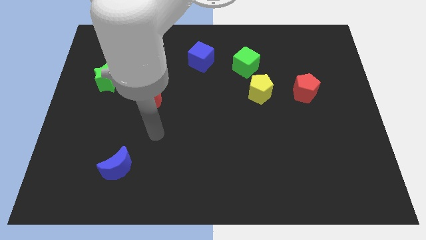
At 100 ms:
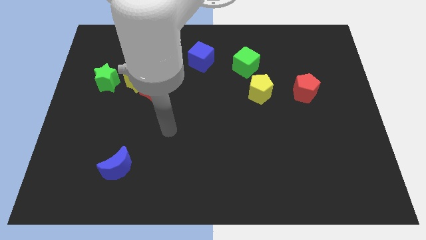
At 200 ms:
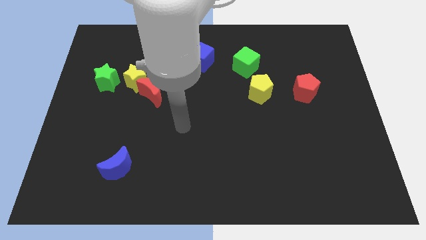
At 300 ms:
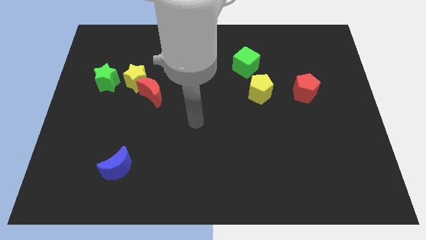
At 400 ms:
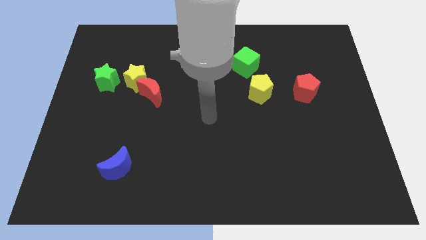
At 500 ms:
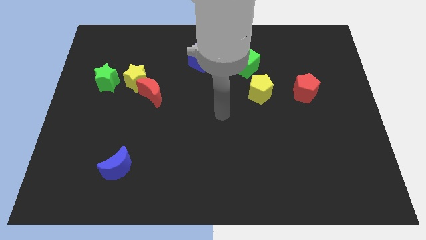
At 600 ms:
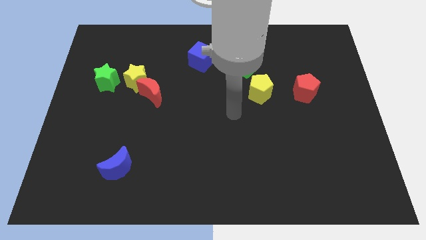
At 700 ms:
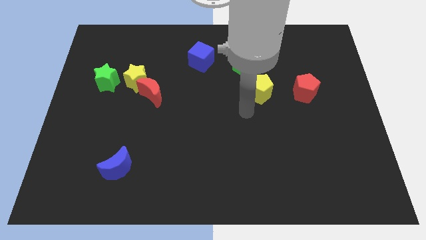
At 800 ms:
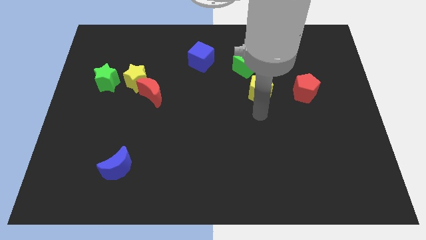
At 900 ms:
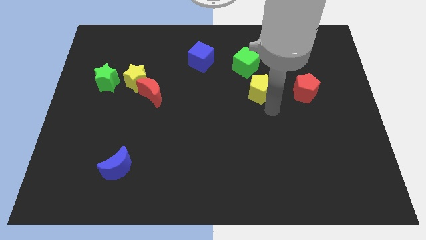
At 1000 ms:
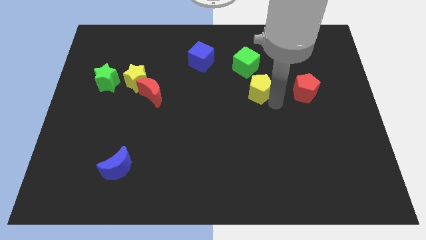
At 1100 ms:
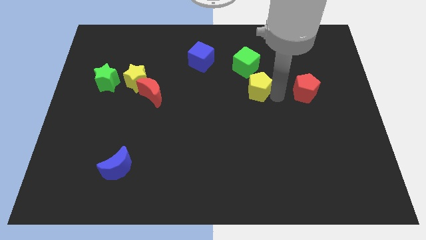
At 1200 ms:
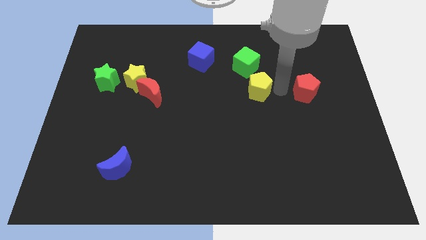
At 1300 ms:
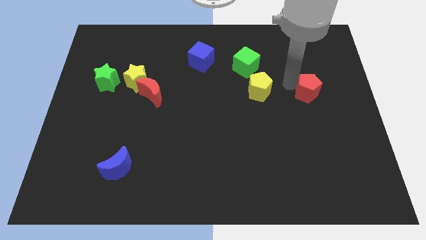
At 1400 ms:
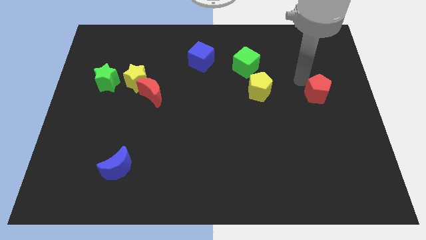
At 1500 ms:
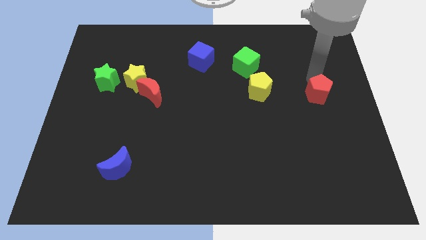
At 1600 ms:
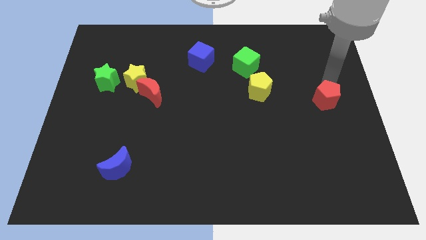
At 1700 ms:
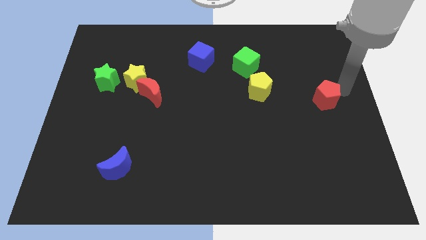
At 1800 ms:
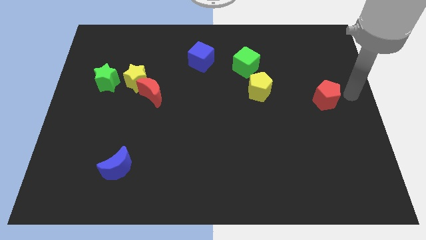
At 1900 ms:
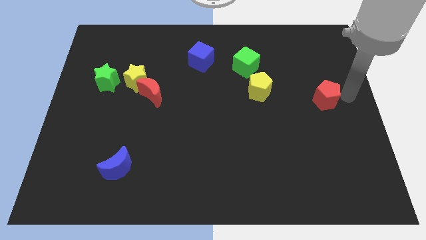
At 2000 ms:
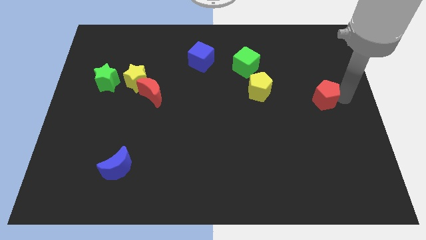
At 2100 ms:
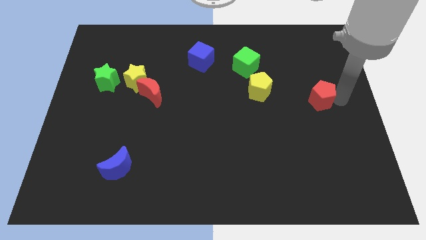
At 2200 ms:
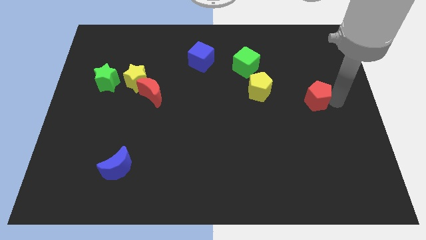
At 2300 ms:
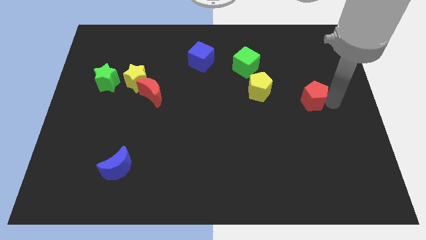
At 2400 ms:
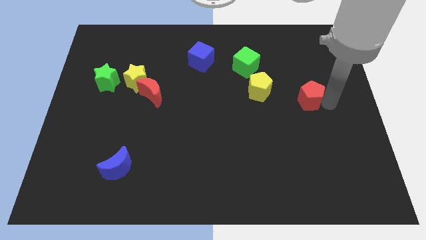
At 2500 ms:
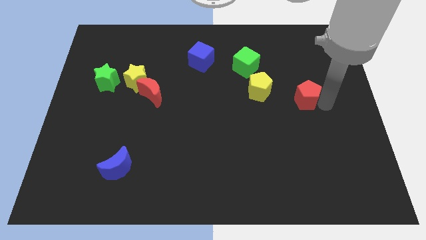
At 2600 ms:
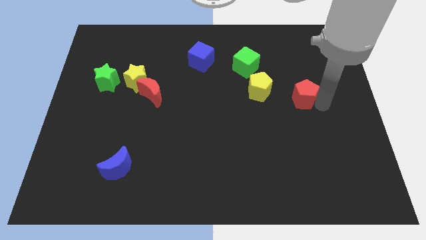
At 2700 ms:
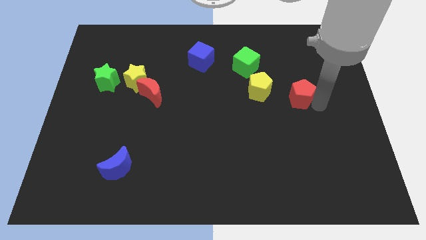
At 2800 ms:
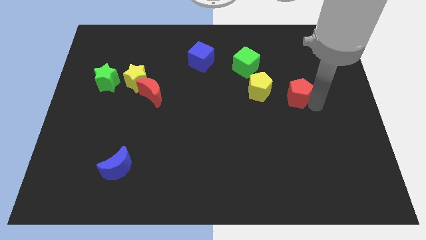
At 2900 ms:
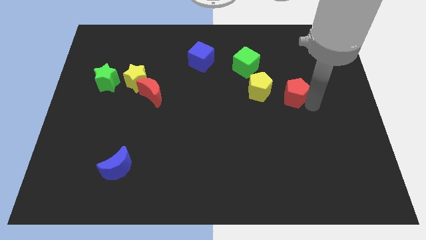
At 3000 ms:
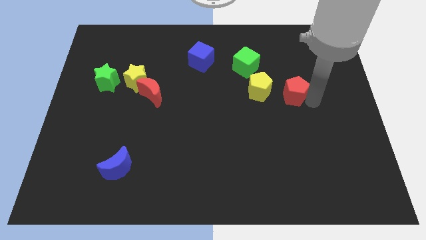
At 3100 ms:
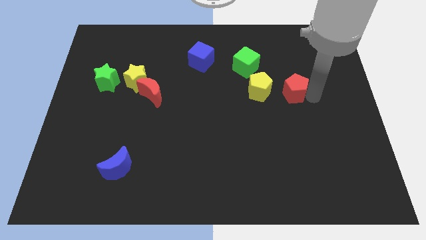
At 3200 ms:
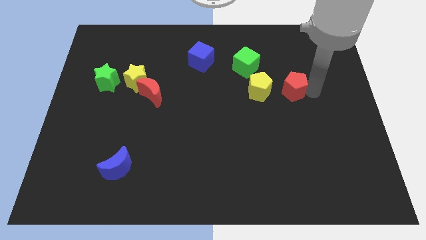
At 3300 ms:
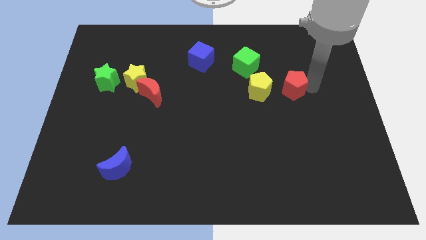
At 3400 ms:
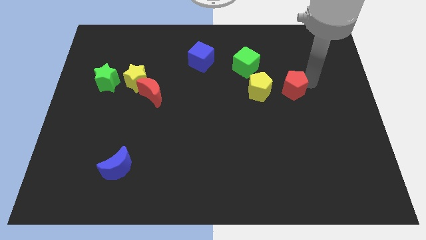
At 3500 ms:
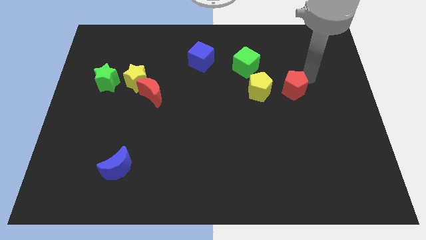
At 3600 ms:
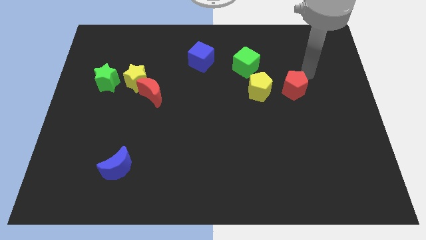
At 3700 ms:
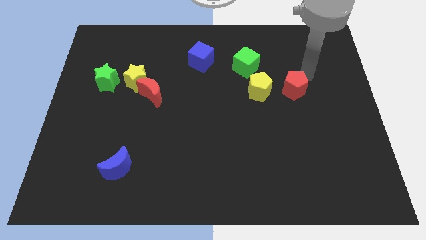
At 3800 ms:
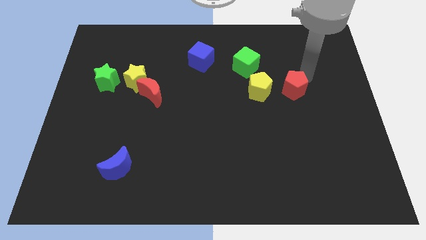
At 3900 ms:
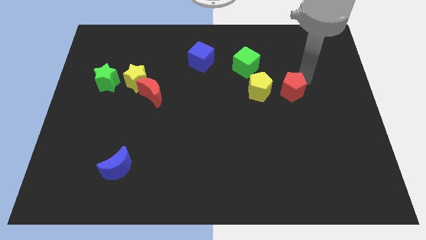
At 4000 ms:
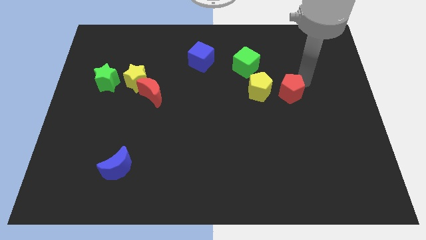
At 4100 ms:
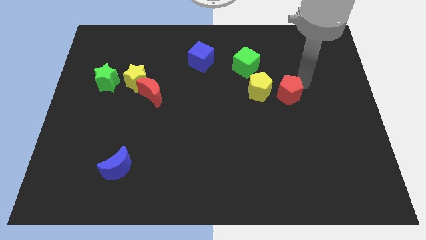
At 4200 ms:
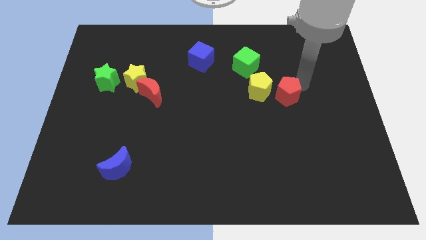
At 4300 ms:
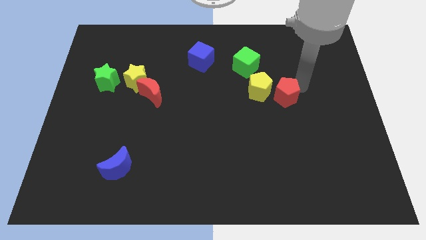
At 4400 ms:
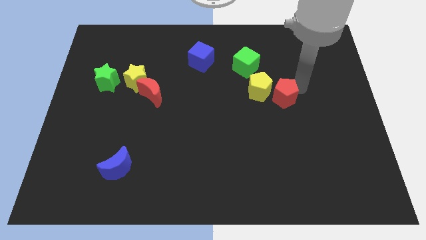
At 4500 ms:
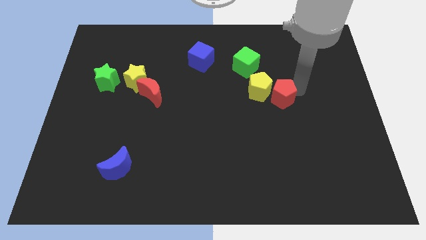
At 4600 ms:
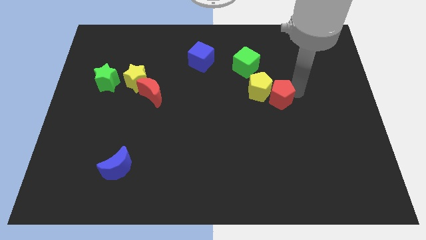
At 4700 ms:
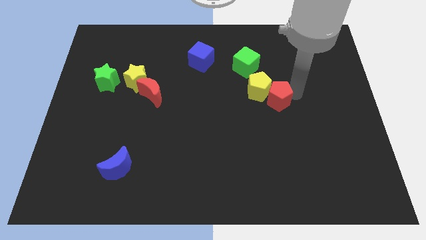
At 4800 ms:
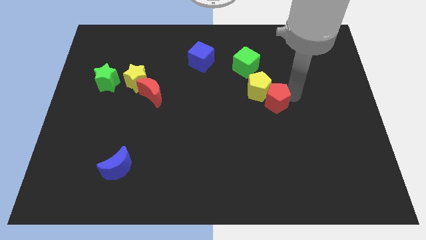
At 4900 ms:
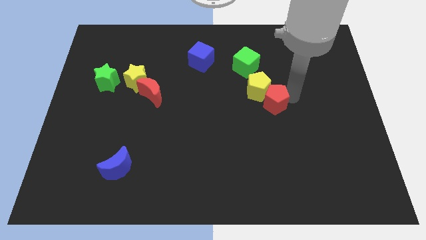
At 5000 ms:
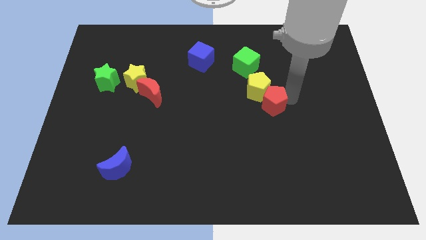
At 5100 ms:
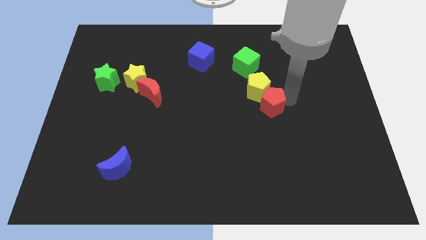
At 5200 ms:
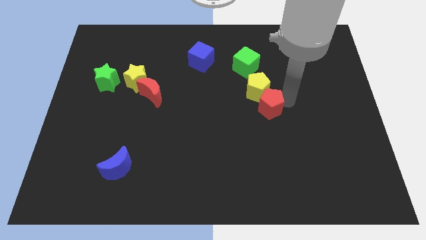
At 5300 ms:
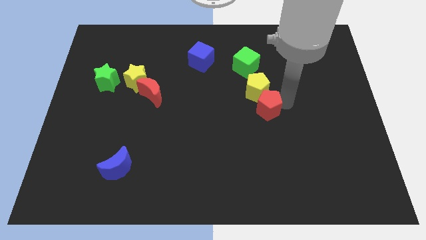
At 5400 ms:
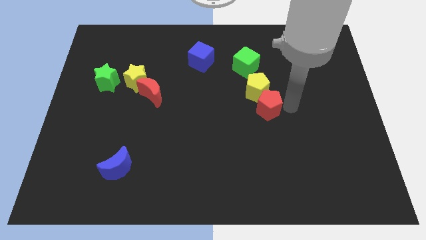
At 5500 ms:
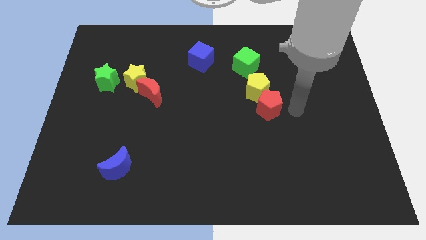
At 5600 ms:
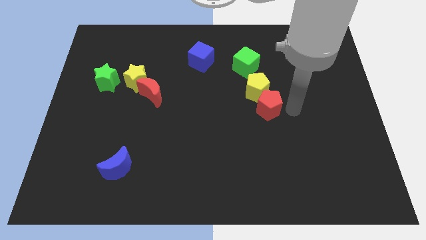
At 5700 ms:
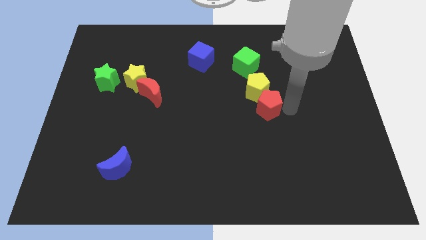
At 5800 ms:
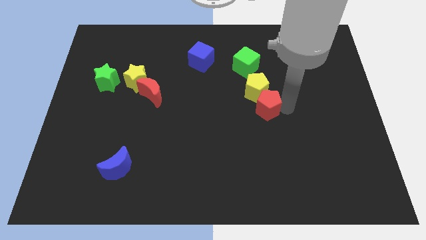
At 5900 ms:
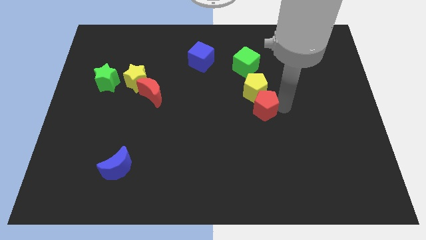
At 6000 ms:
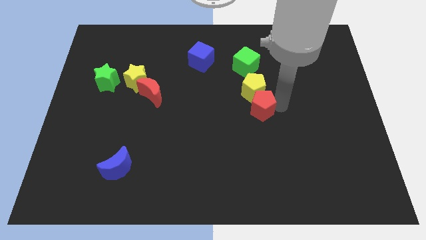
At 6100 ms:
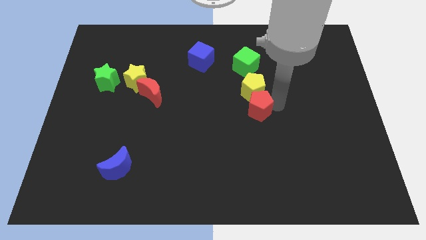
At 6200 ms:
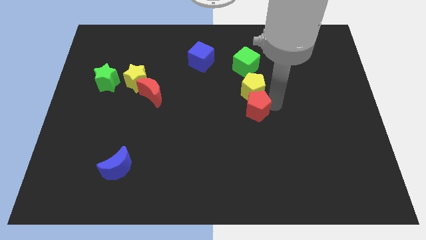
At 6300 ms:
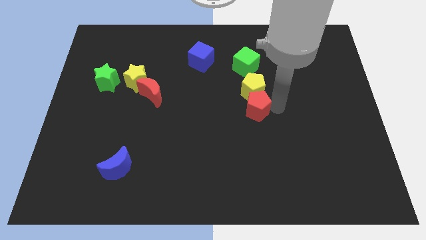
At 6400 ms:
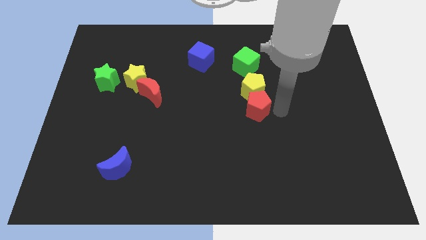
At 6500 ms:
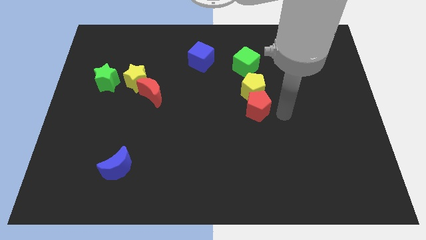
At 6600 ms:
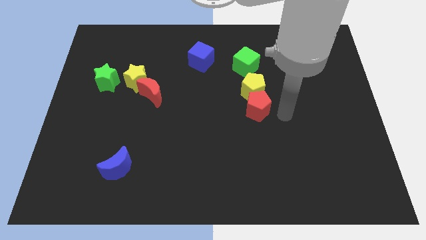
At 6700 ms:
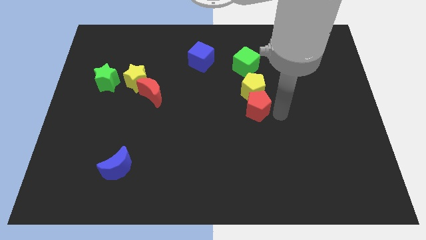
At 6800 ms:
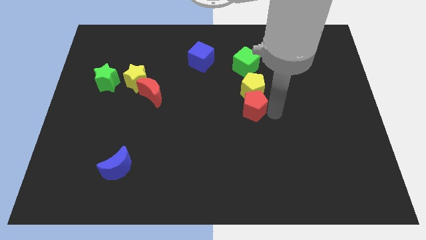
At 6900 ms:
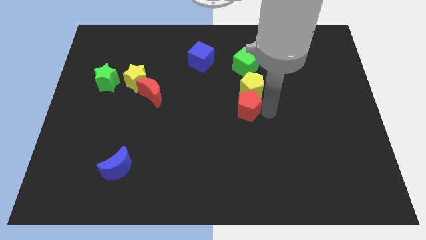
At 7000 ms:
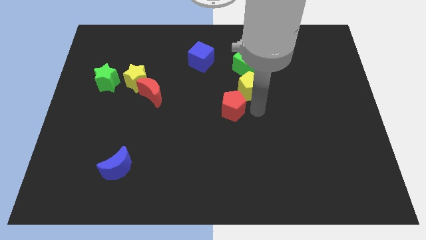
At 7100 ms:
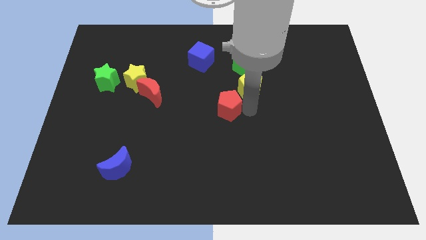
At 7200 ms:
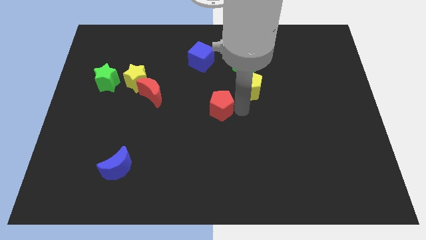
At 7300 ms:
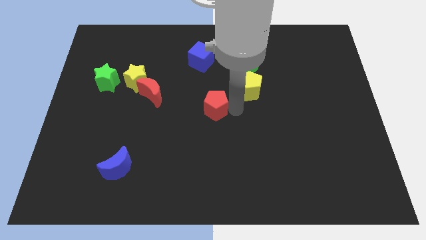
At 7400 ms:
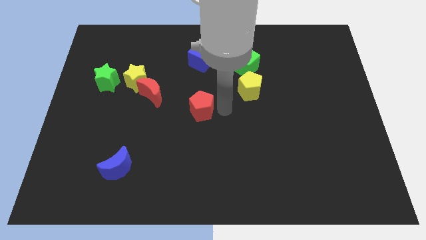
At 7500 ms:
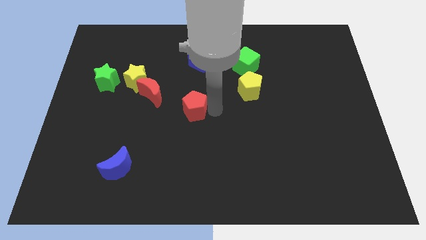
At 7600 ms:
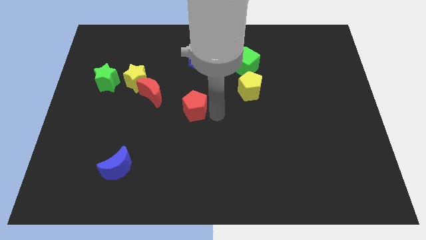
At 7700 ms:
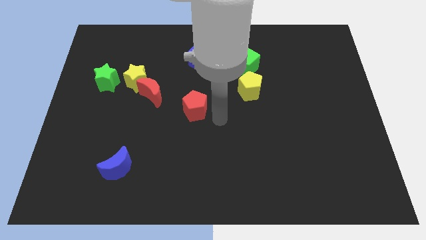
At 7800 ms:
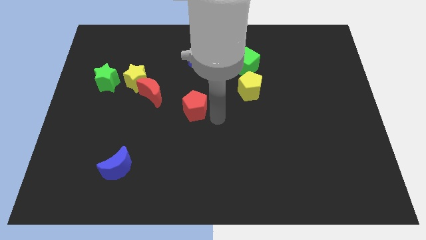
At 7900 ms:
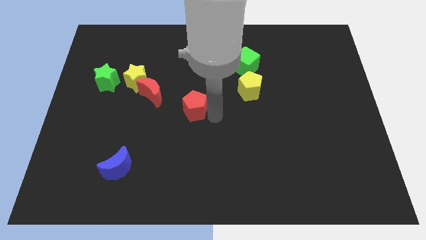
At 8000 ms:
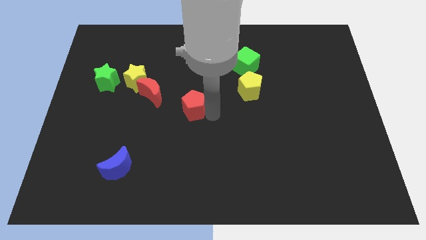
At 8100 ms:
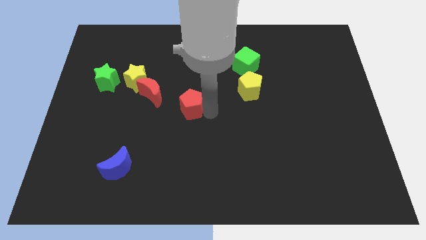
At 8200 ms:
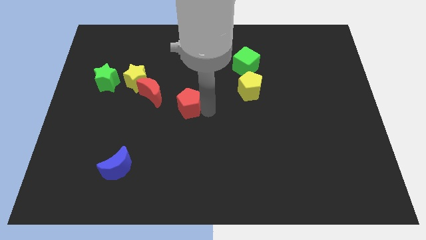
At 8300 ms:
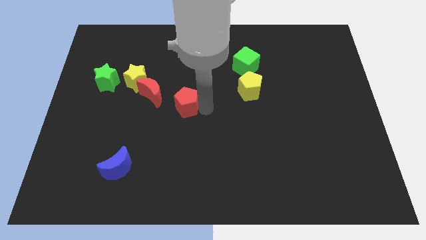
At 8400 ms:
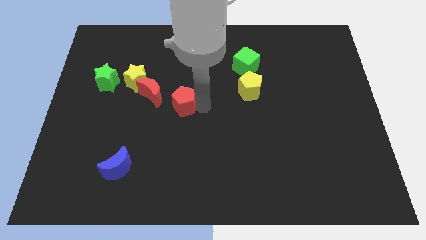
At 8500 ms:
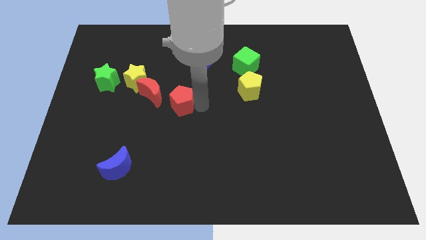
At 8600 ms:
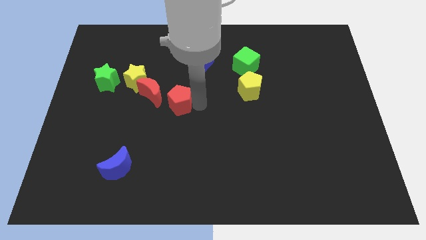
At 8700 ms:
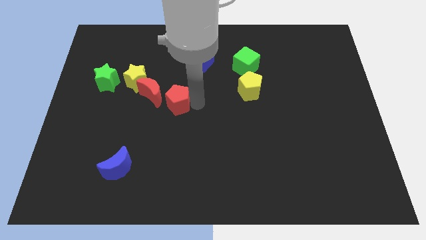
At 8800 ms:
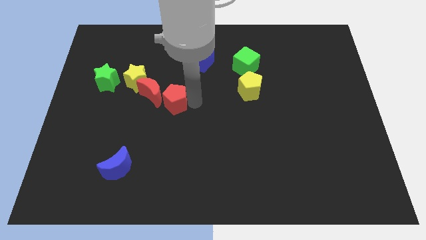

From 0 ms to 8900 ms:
push the red pentagon towards the red moon
